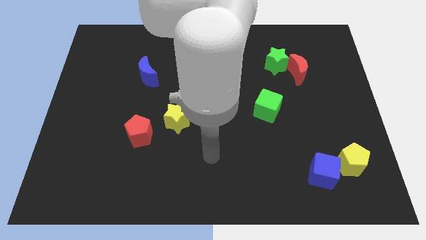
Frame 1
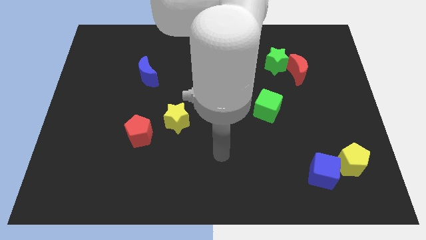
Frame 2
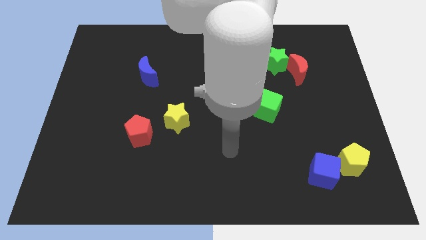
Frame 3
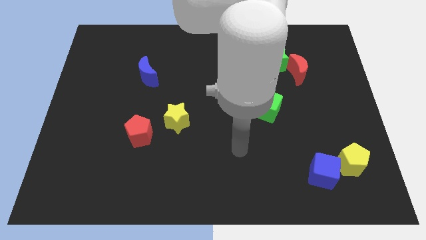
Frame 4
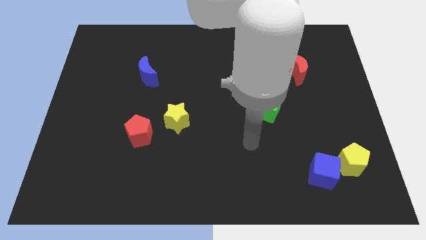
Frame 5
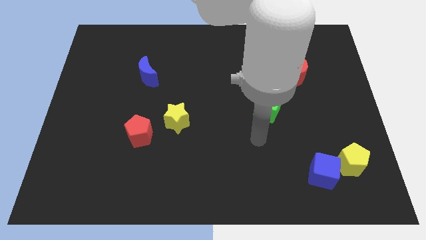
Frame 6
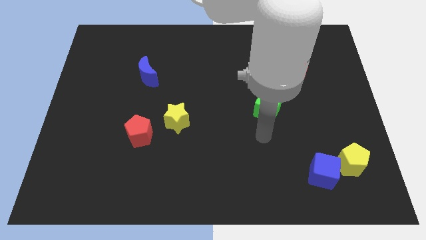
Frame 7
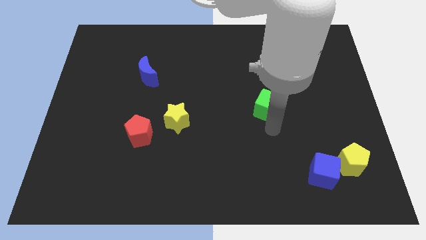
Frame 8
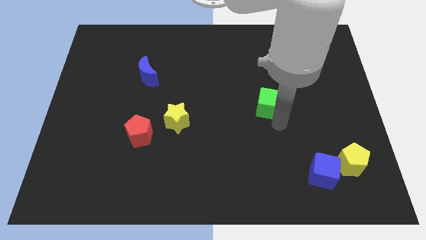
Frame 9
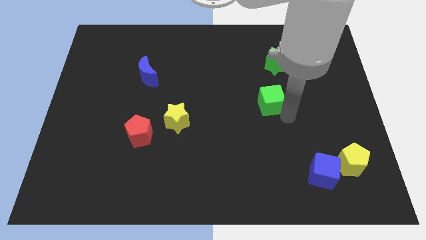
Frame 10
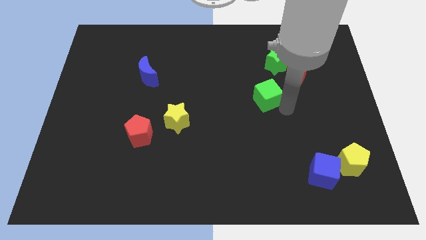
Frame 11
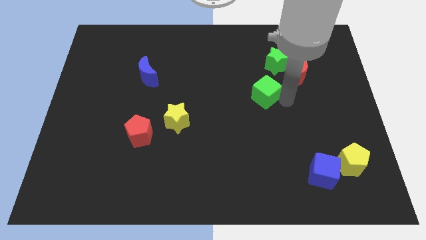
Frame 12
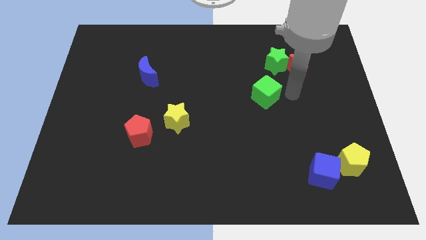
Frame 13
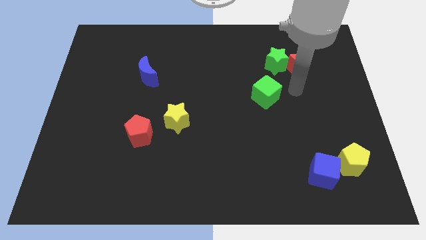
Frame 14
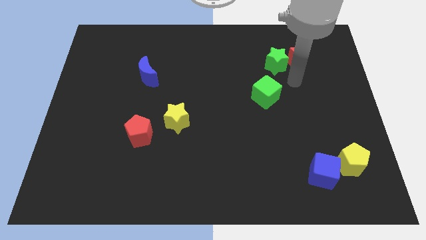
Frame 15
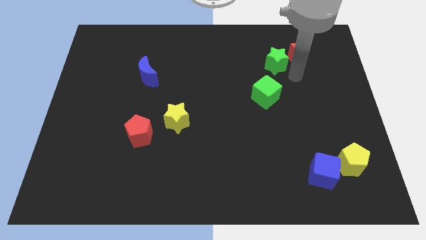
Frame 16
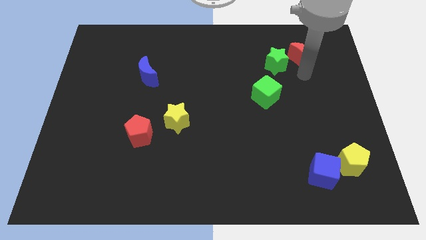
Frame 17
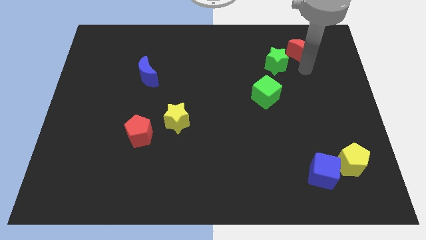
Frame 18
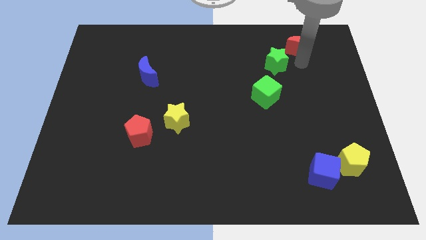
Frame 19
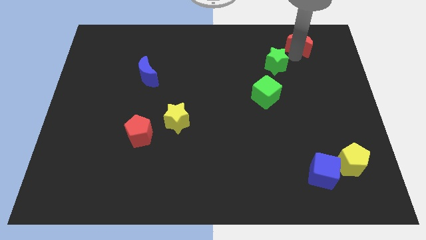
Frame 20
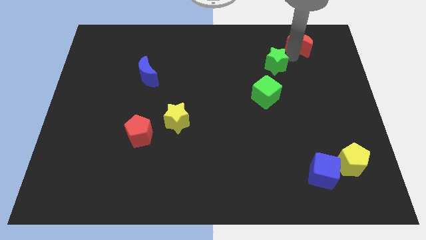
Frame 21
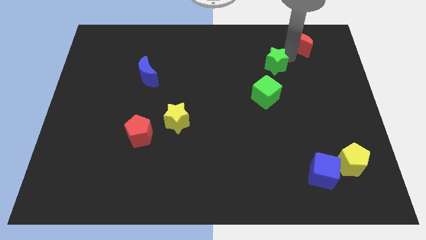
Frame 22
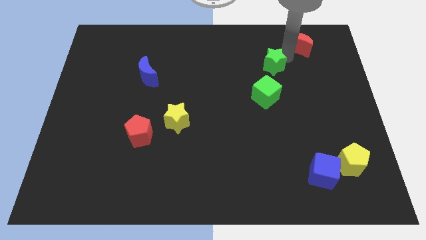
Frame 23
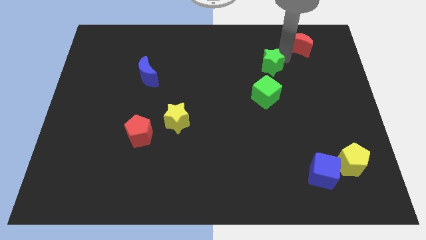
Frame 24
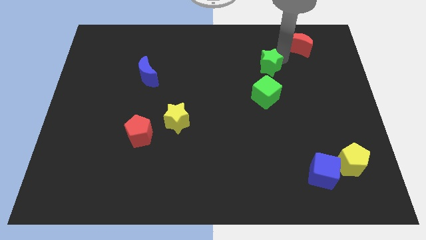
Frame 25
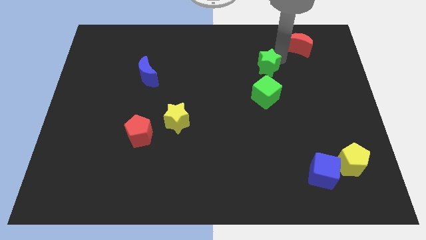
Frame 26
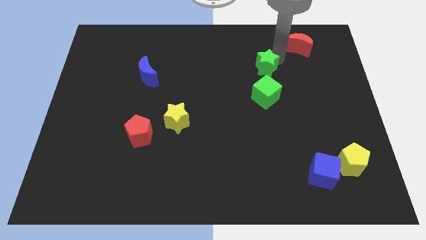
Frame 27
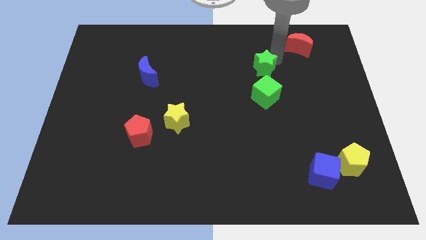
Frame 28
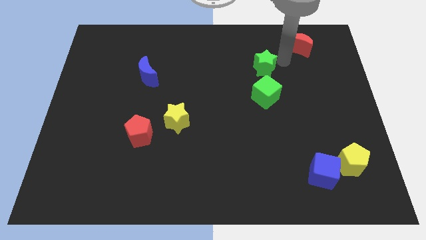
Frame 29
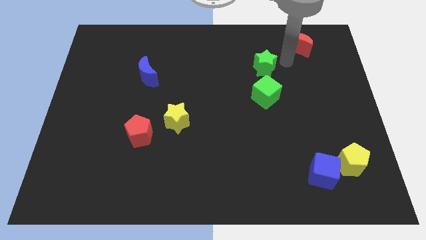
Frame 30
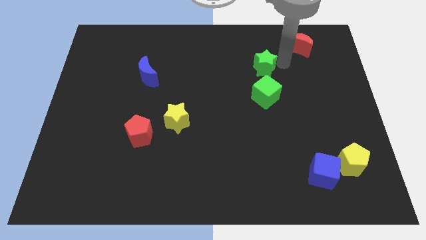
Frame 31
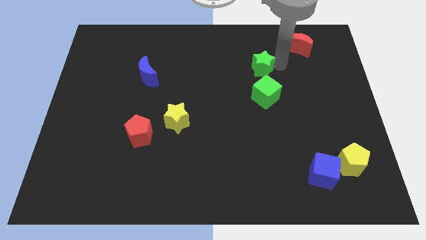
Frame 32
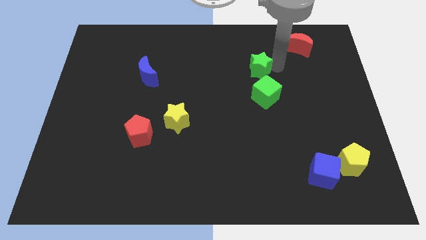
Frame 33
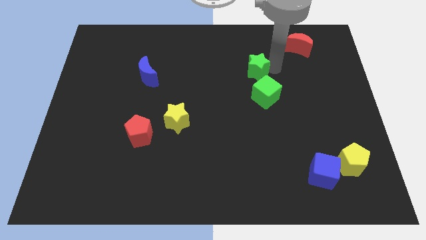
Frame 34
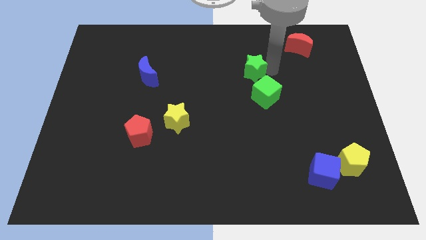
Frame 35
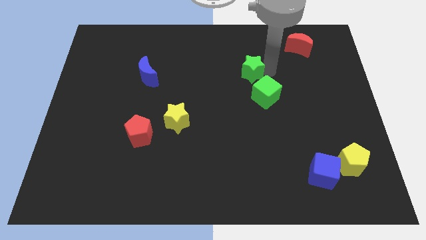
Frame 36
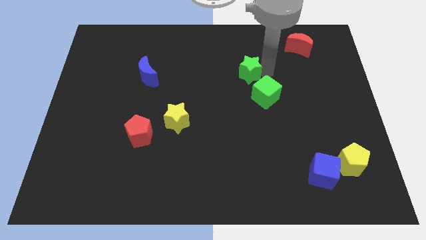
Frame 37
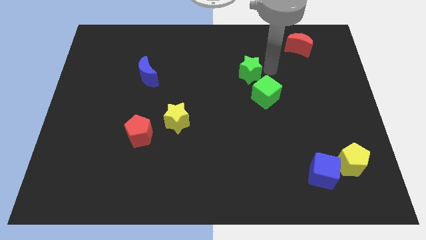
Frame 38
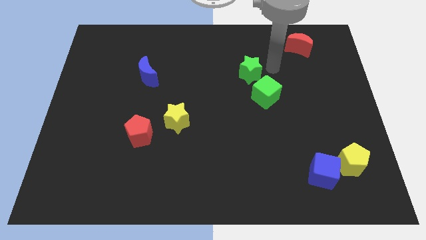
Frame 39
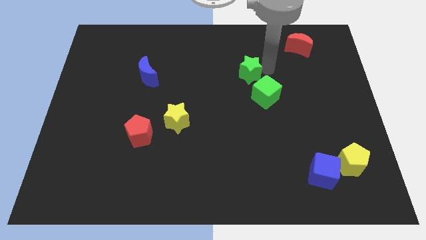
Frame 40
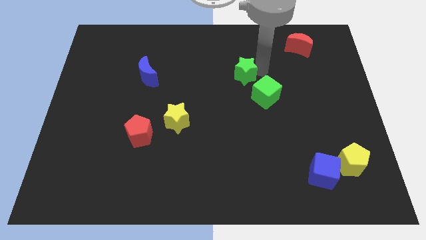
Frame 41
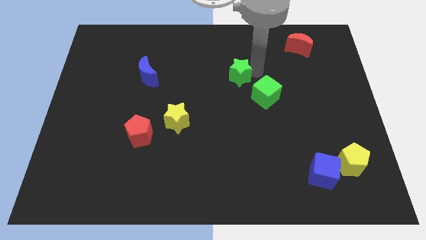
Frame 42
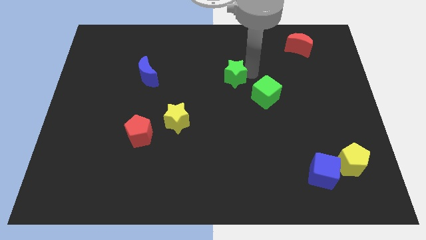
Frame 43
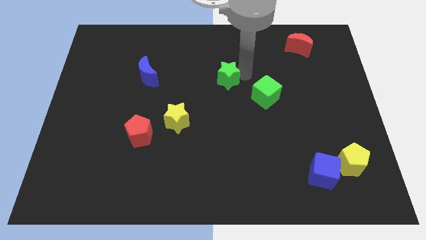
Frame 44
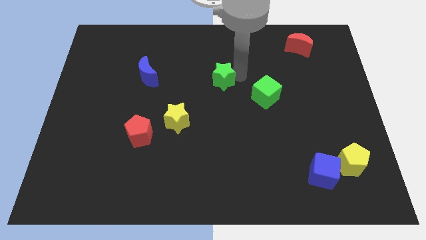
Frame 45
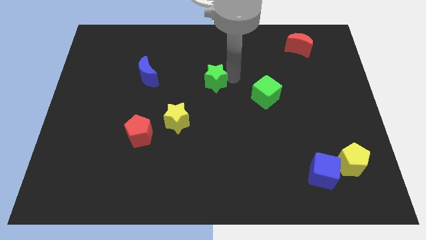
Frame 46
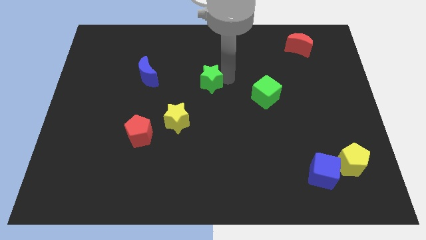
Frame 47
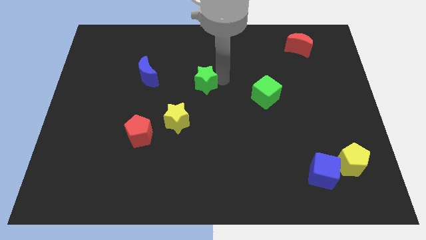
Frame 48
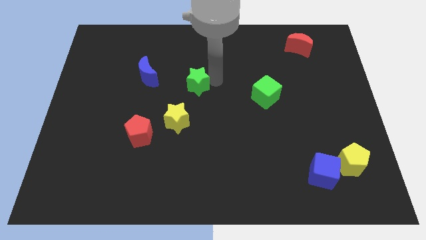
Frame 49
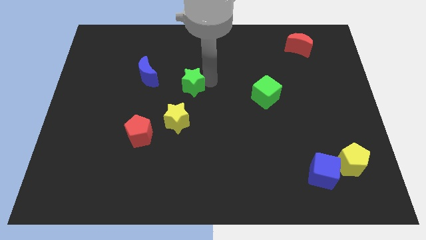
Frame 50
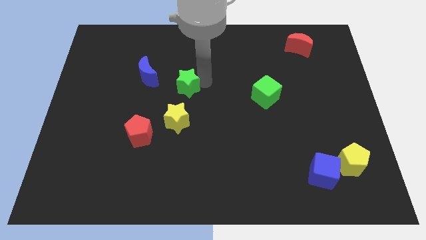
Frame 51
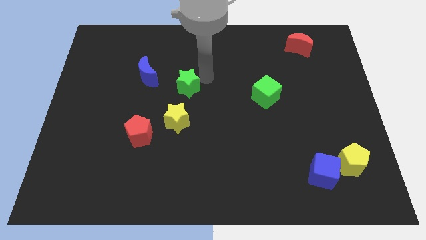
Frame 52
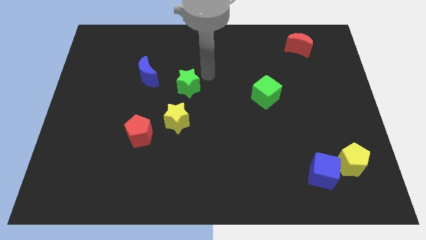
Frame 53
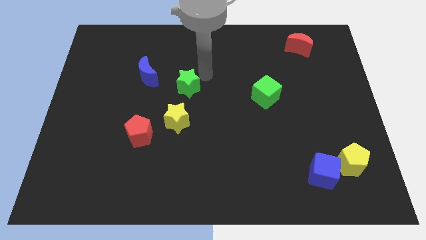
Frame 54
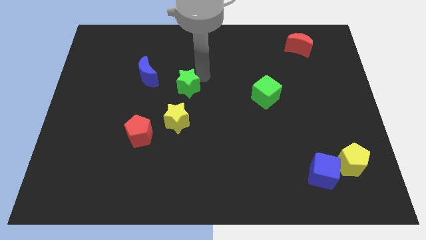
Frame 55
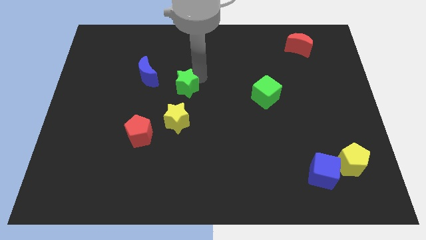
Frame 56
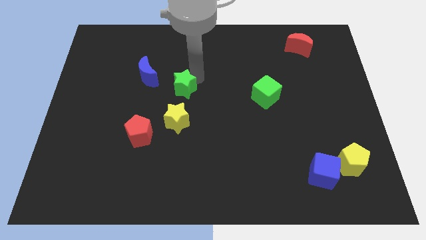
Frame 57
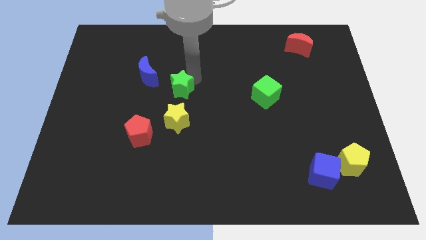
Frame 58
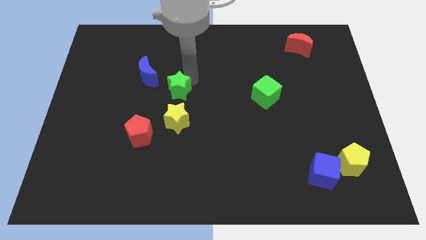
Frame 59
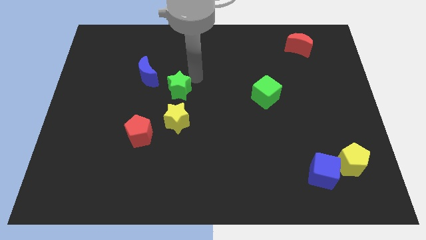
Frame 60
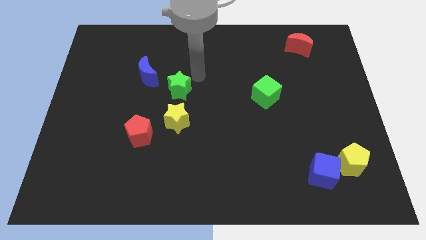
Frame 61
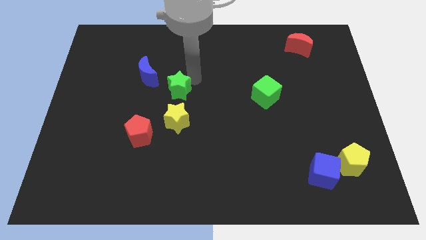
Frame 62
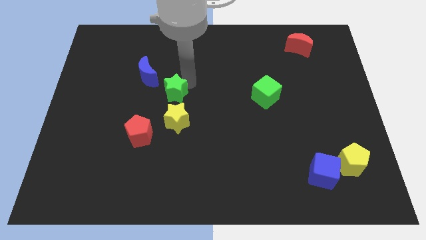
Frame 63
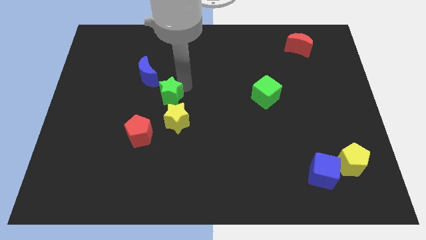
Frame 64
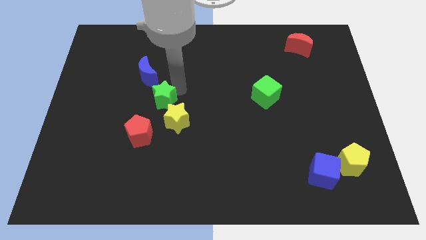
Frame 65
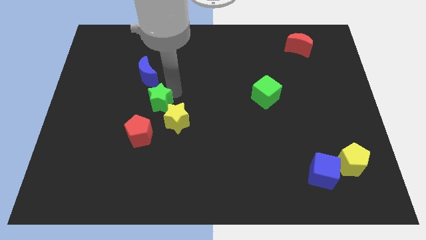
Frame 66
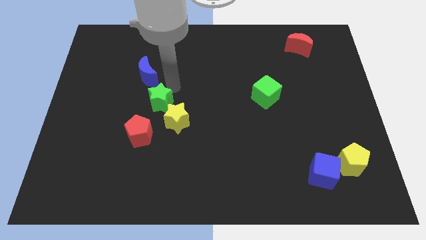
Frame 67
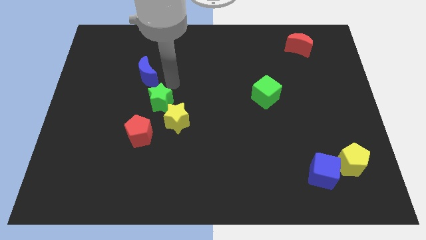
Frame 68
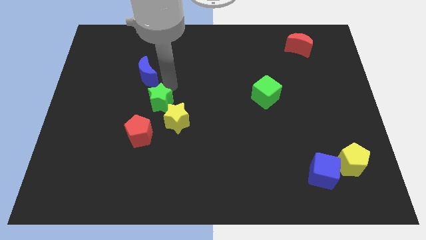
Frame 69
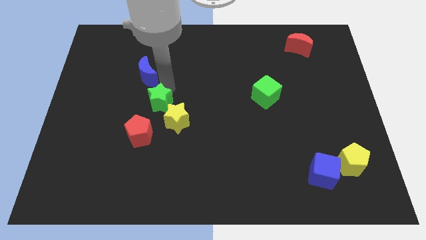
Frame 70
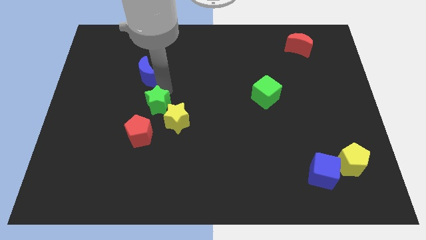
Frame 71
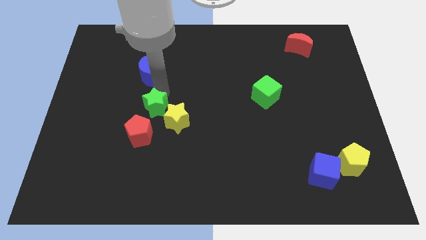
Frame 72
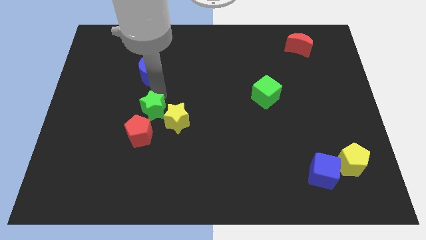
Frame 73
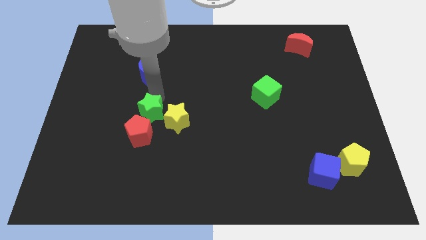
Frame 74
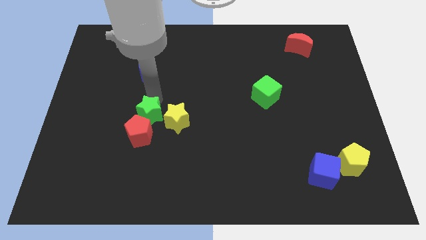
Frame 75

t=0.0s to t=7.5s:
put the green star towards the red pentagon
